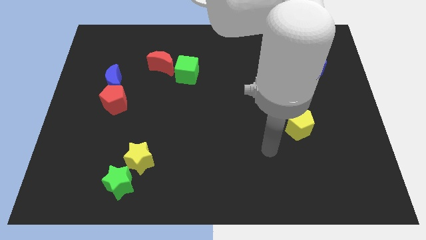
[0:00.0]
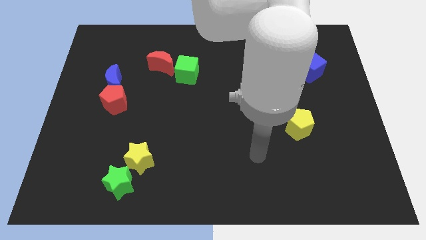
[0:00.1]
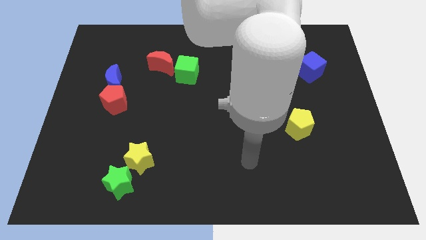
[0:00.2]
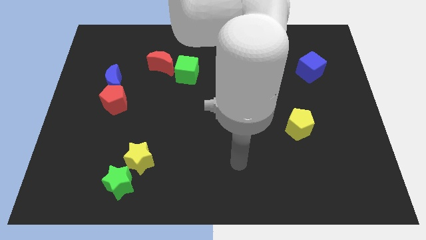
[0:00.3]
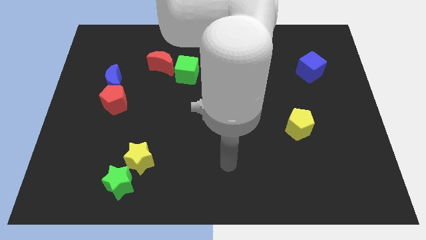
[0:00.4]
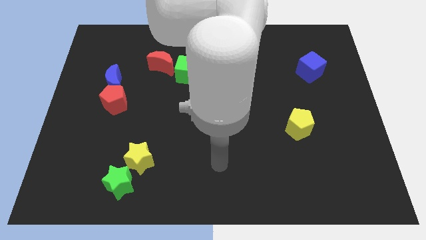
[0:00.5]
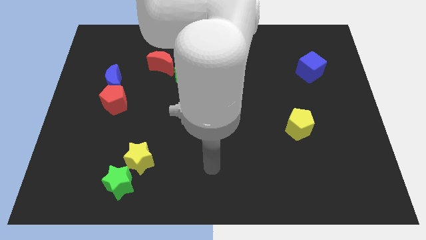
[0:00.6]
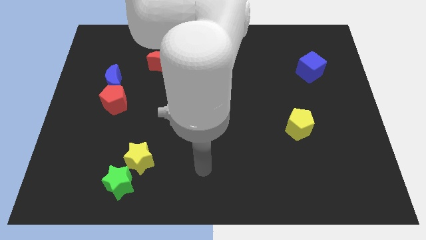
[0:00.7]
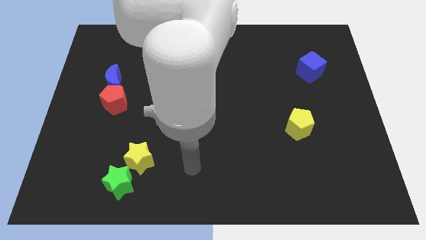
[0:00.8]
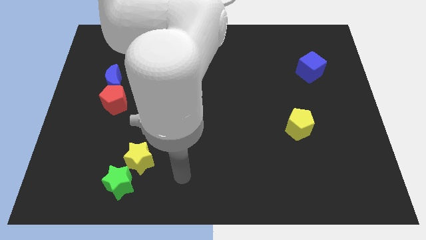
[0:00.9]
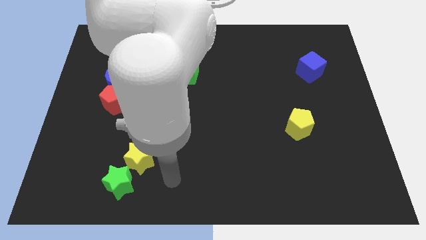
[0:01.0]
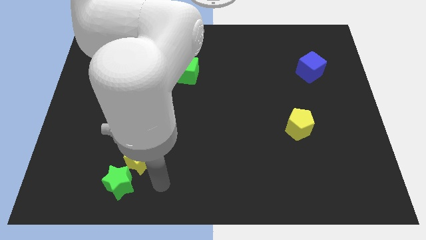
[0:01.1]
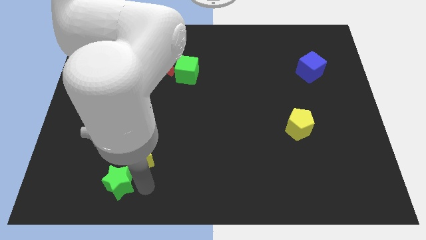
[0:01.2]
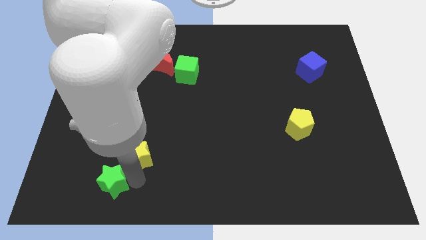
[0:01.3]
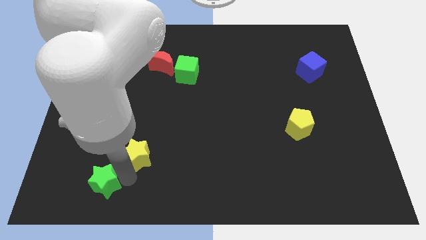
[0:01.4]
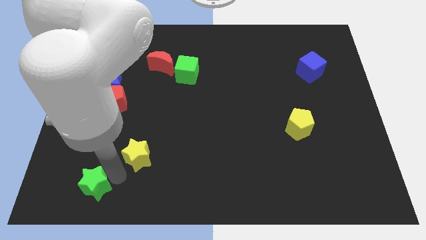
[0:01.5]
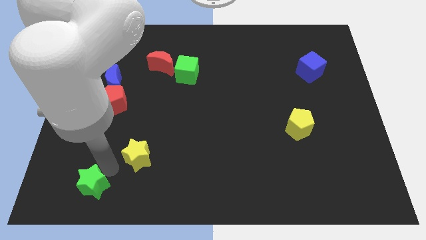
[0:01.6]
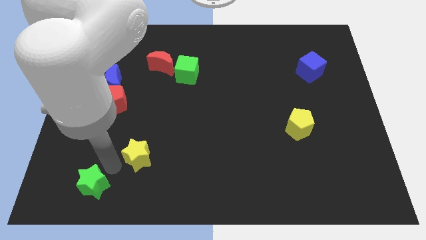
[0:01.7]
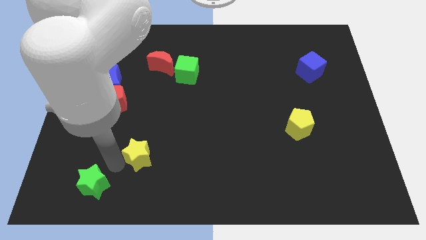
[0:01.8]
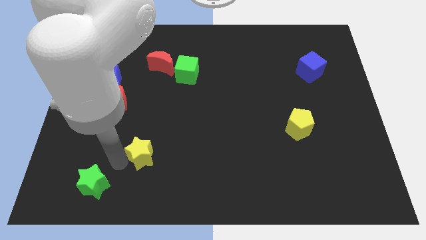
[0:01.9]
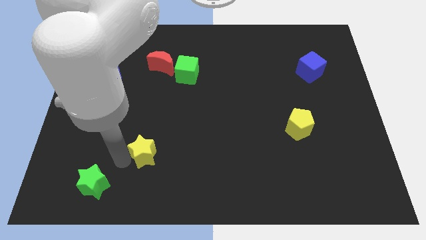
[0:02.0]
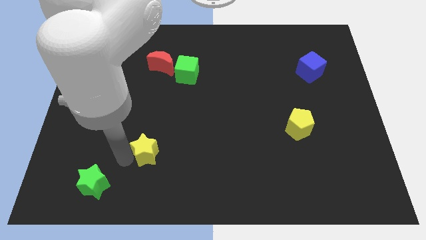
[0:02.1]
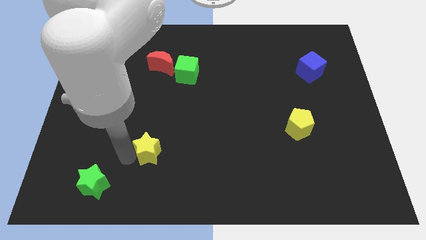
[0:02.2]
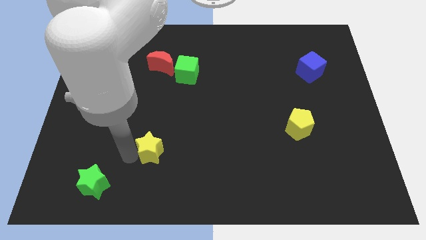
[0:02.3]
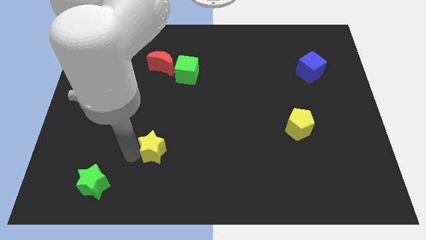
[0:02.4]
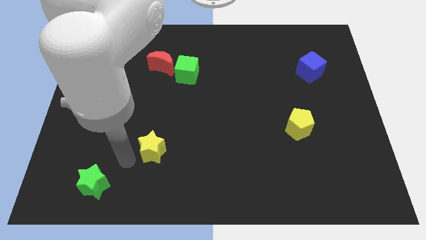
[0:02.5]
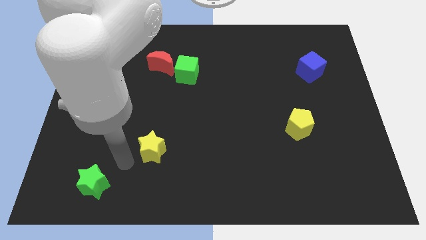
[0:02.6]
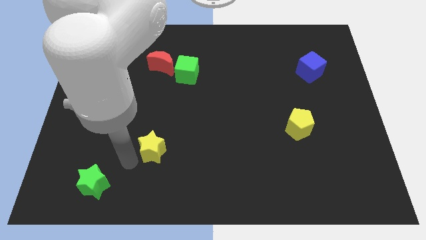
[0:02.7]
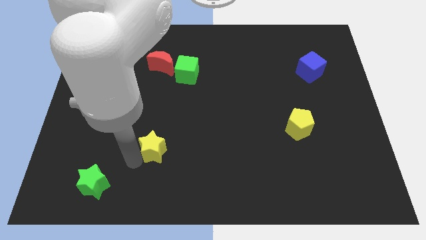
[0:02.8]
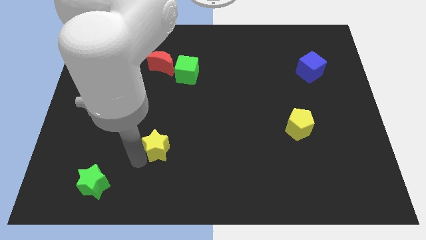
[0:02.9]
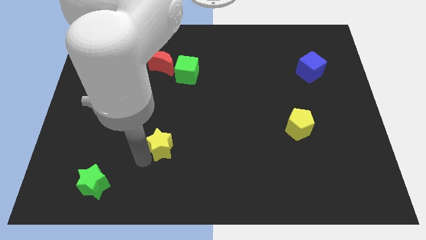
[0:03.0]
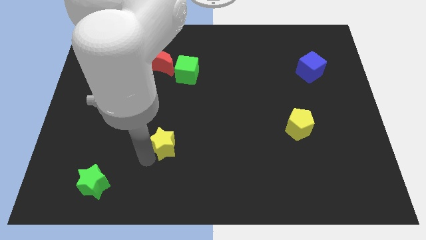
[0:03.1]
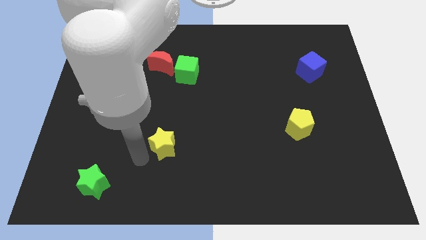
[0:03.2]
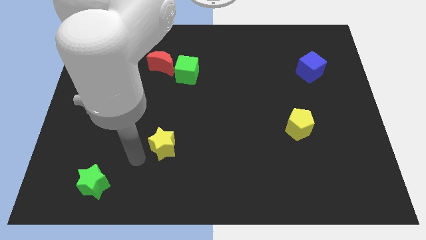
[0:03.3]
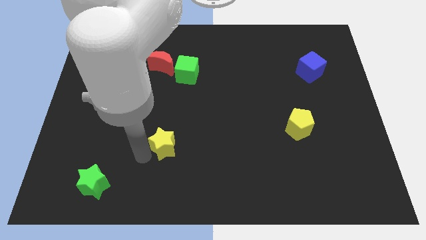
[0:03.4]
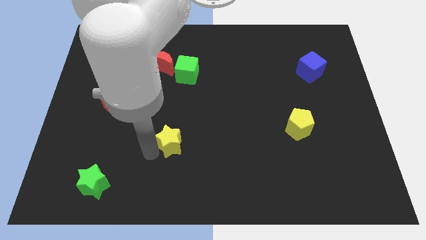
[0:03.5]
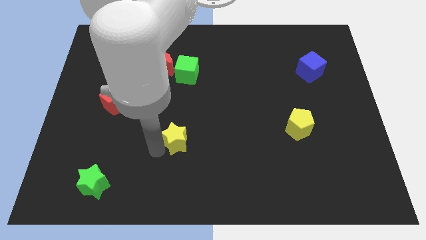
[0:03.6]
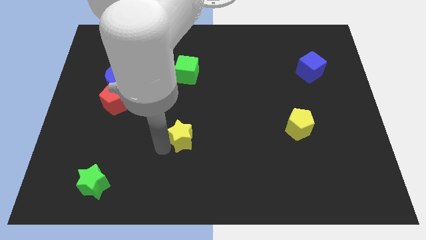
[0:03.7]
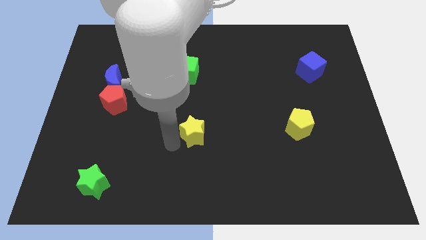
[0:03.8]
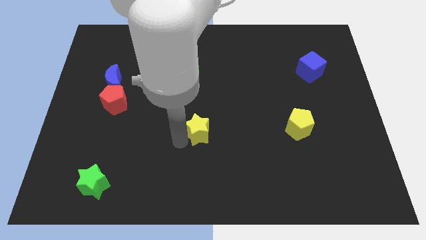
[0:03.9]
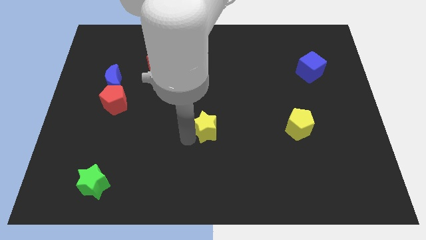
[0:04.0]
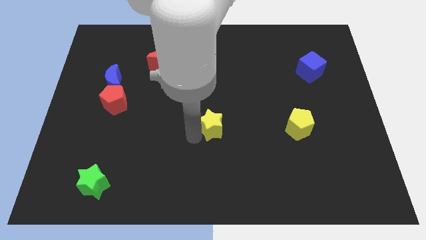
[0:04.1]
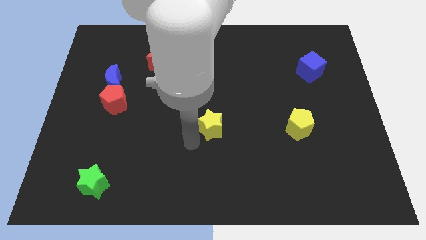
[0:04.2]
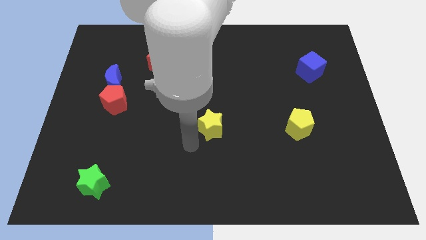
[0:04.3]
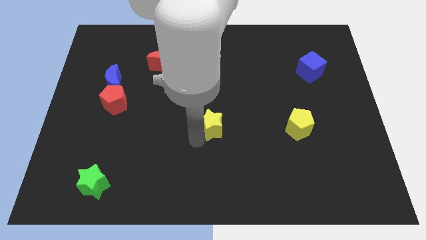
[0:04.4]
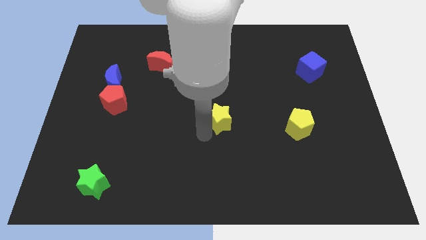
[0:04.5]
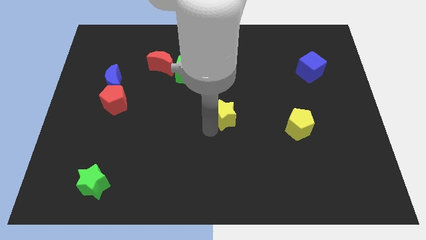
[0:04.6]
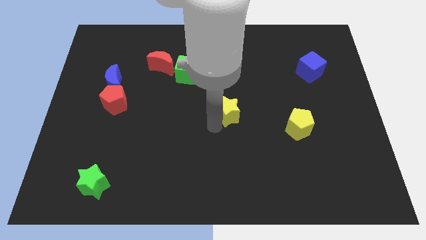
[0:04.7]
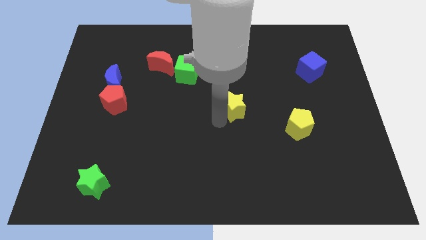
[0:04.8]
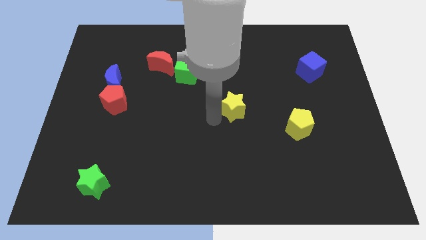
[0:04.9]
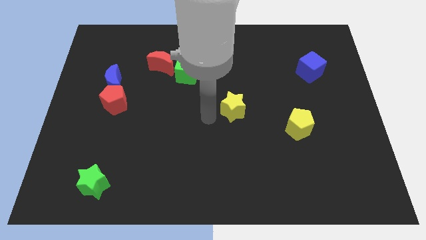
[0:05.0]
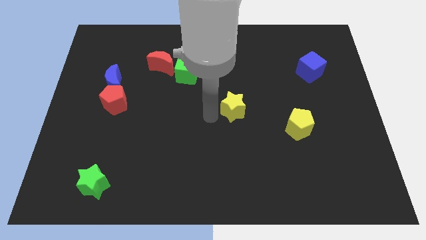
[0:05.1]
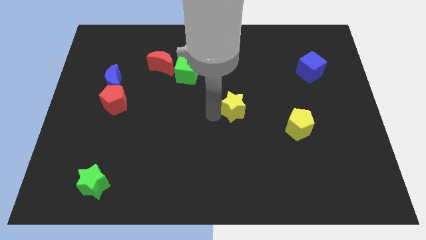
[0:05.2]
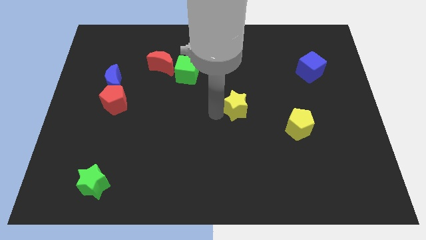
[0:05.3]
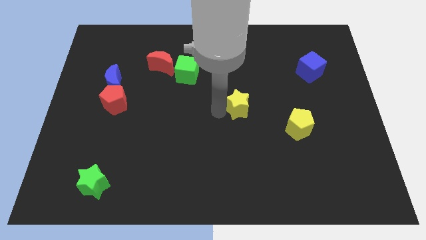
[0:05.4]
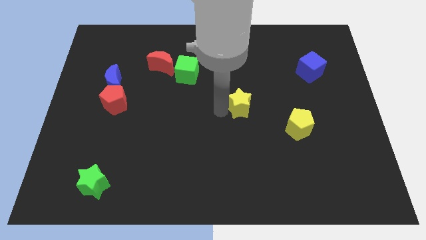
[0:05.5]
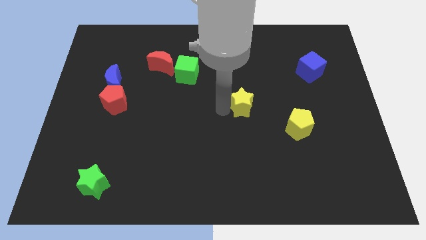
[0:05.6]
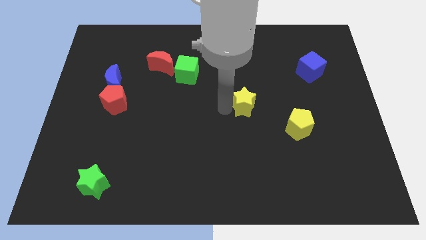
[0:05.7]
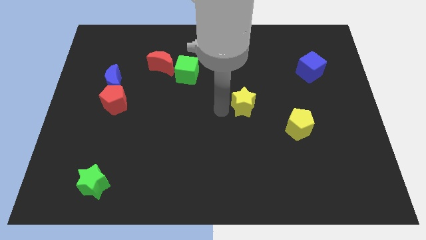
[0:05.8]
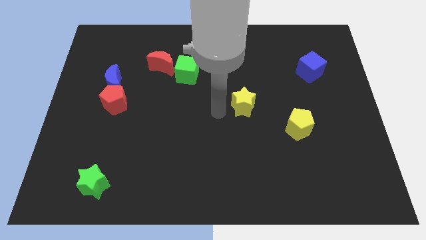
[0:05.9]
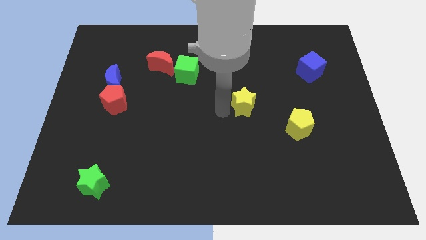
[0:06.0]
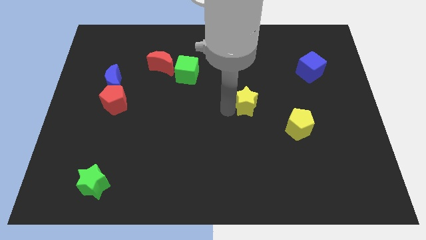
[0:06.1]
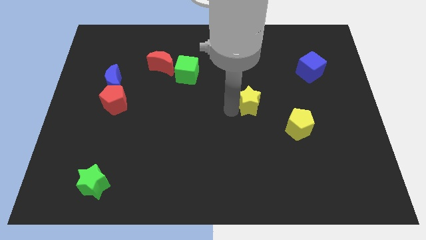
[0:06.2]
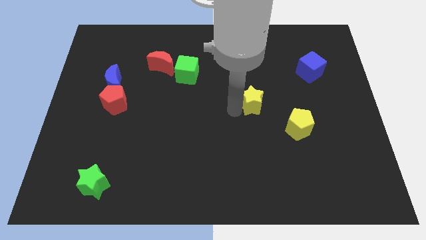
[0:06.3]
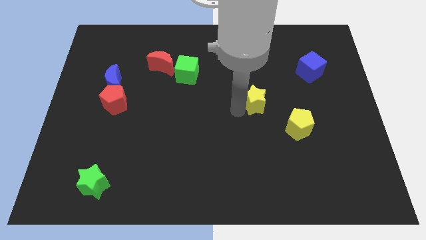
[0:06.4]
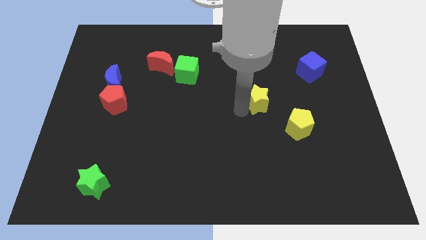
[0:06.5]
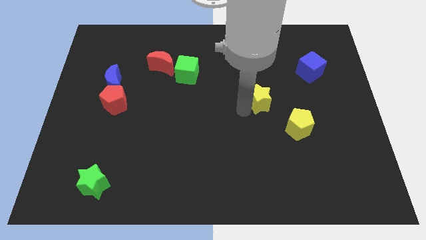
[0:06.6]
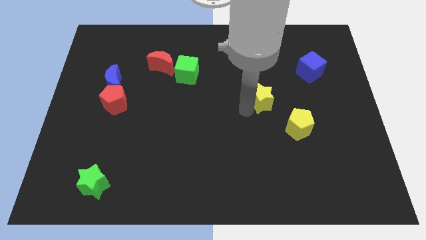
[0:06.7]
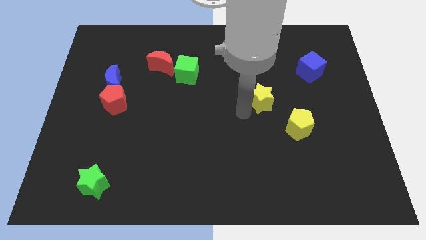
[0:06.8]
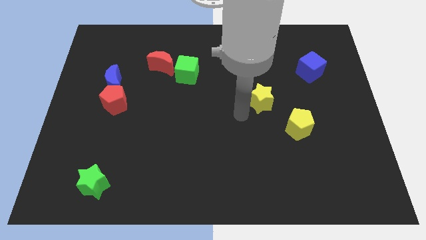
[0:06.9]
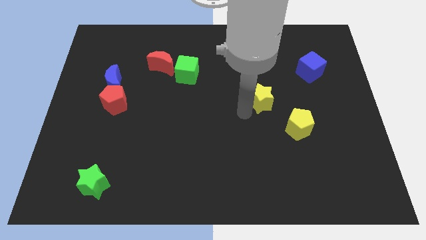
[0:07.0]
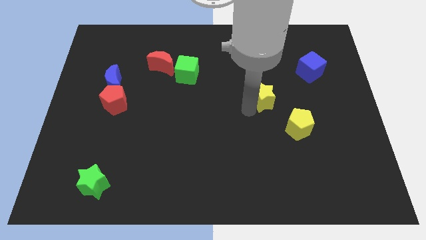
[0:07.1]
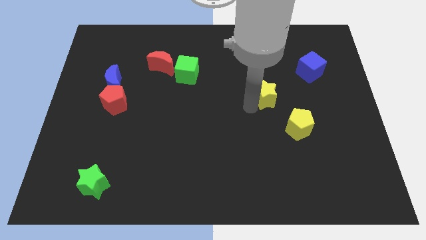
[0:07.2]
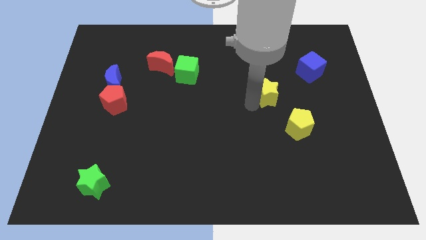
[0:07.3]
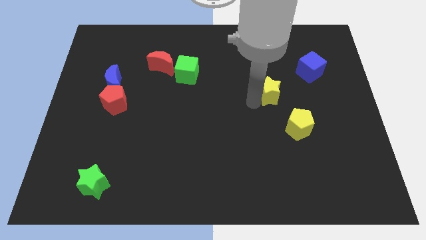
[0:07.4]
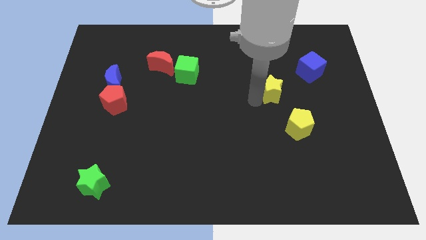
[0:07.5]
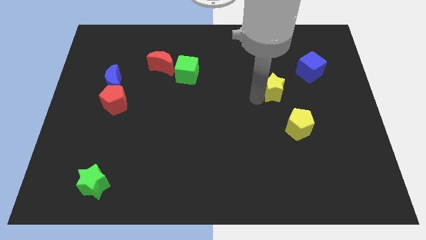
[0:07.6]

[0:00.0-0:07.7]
slide the yellow star to the top side of the yellow pentagon
